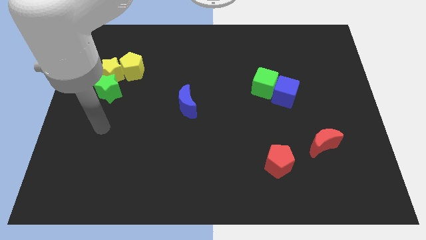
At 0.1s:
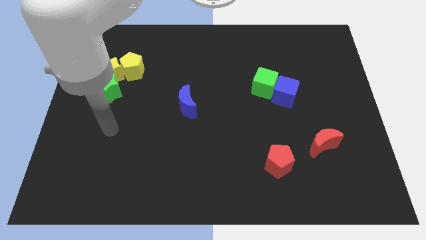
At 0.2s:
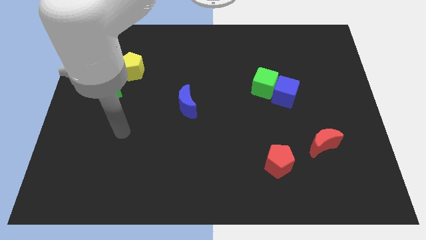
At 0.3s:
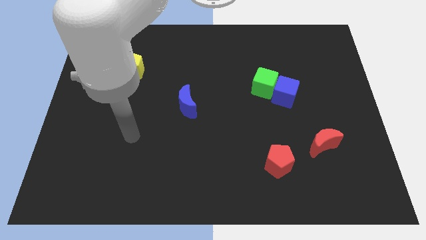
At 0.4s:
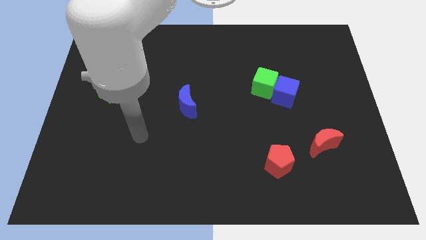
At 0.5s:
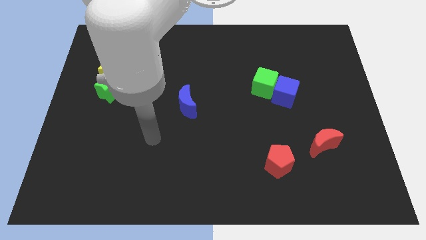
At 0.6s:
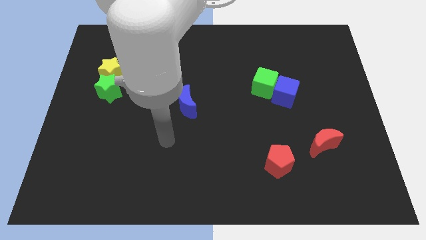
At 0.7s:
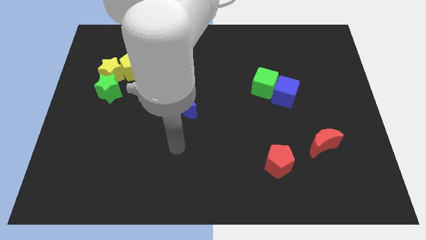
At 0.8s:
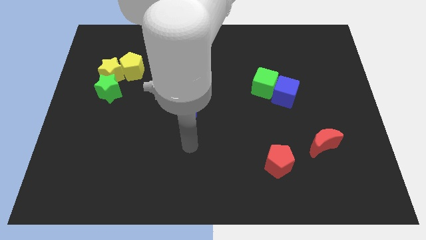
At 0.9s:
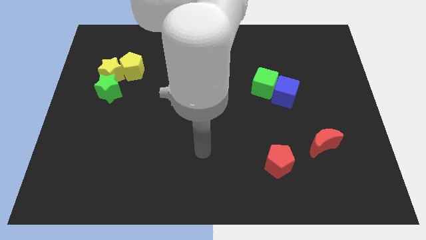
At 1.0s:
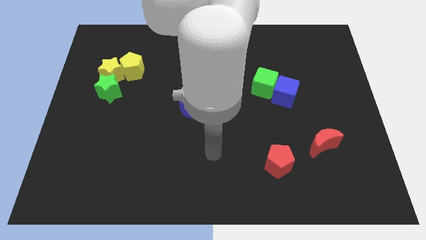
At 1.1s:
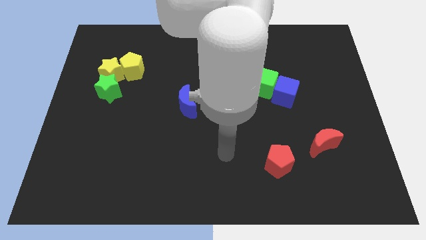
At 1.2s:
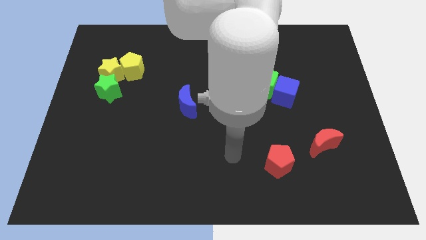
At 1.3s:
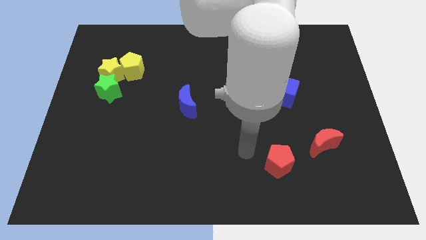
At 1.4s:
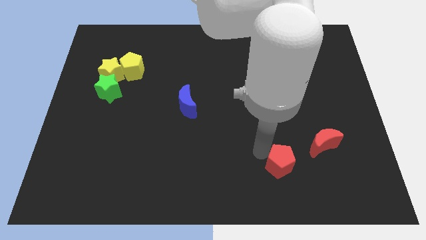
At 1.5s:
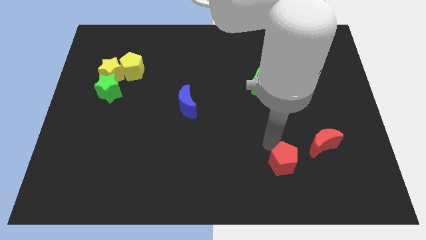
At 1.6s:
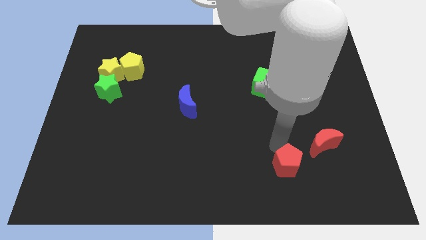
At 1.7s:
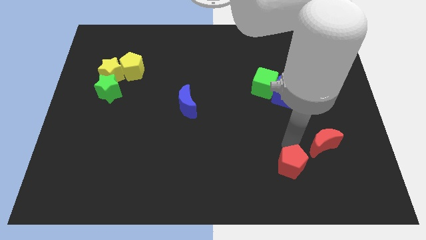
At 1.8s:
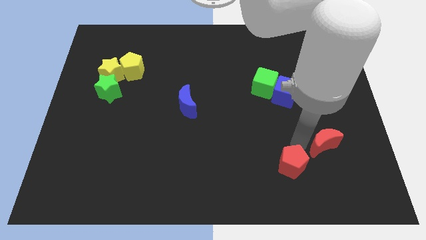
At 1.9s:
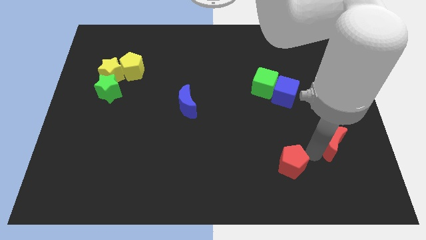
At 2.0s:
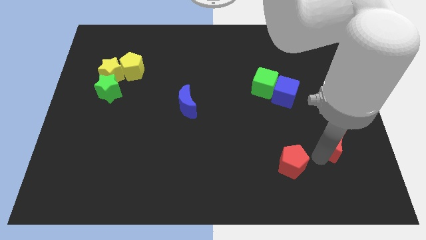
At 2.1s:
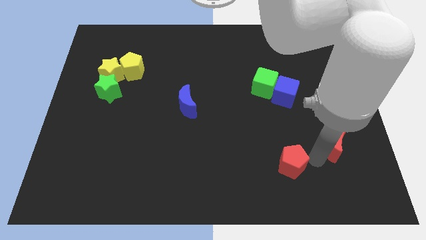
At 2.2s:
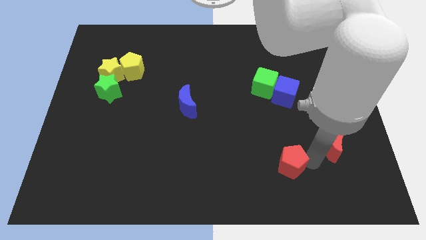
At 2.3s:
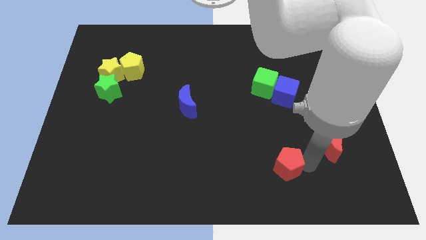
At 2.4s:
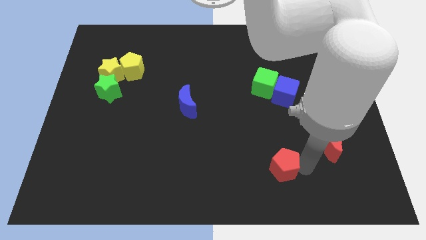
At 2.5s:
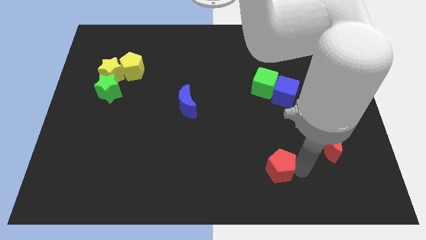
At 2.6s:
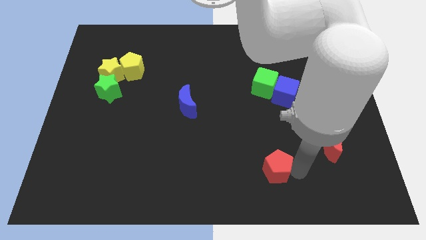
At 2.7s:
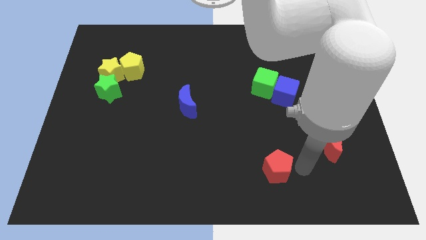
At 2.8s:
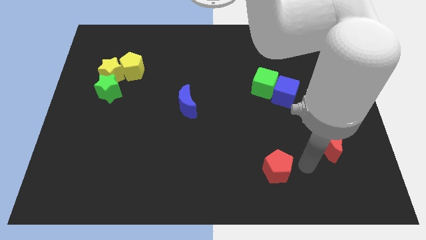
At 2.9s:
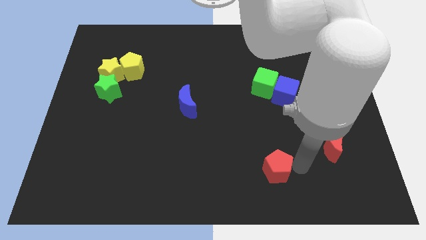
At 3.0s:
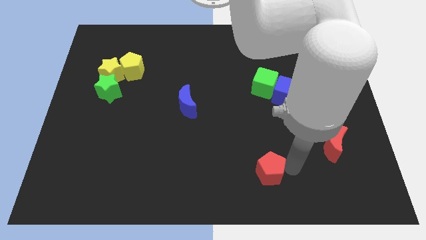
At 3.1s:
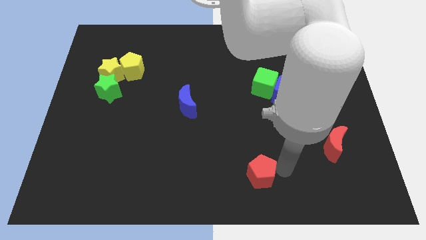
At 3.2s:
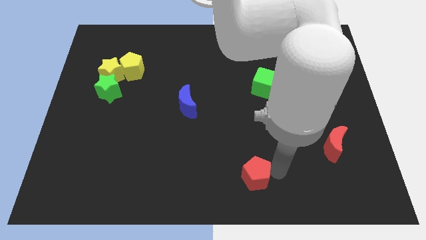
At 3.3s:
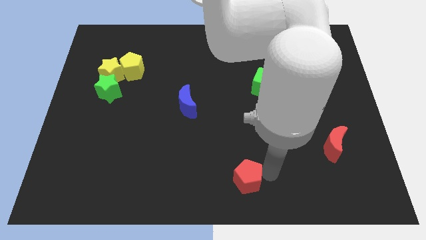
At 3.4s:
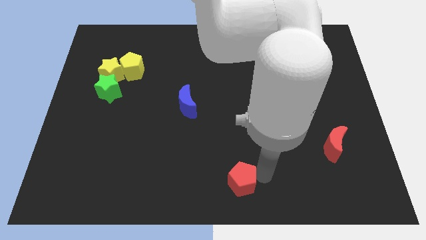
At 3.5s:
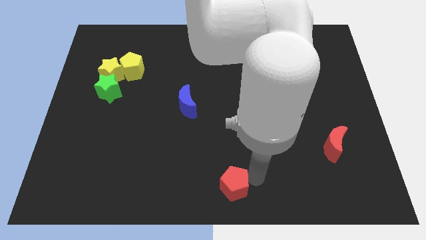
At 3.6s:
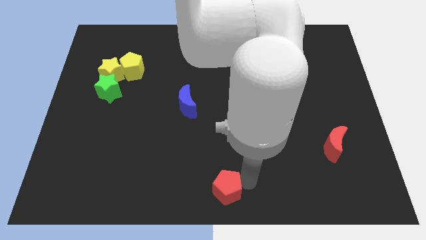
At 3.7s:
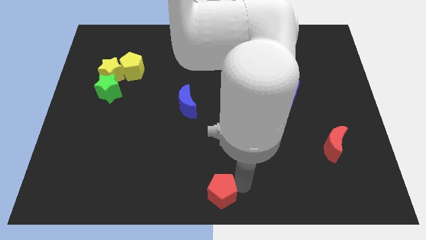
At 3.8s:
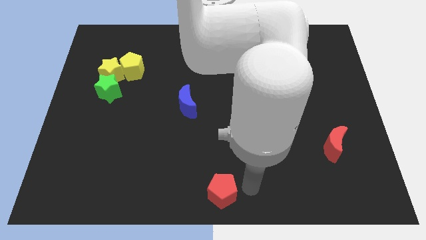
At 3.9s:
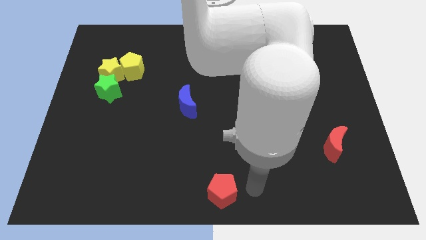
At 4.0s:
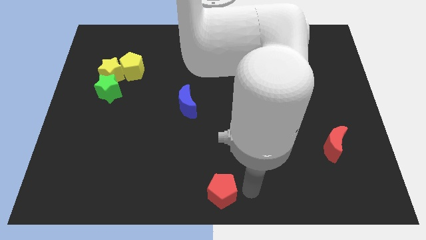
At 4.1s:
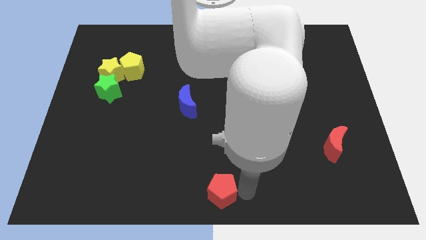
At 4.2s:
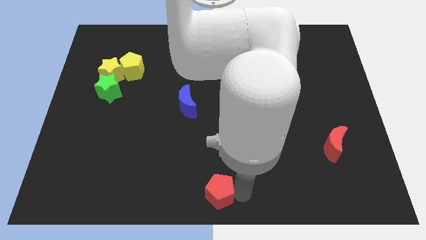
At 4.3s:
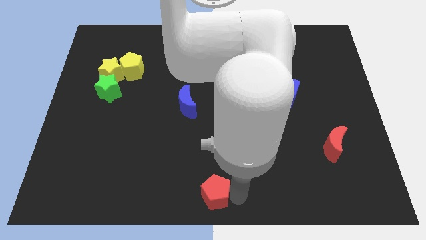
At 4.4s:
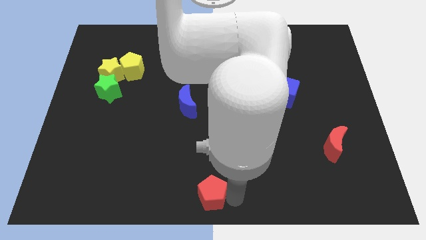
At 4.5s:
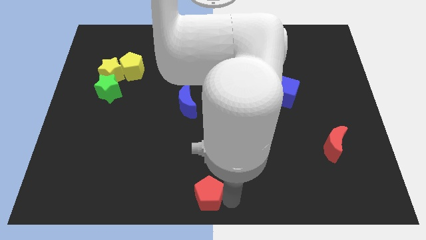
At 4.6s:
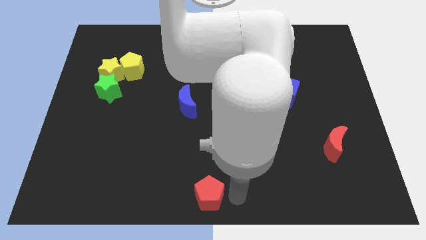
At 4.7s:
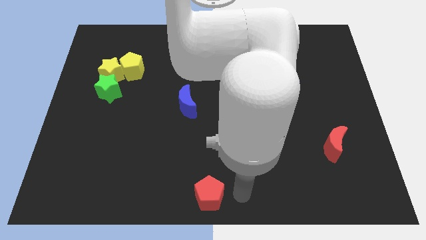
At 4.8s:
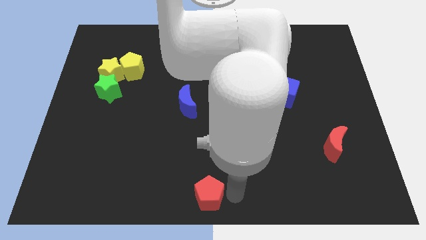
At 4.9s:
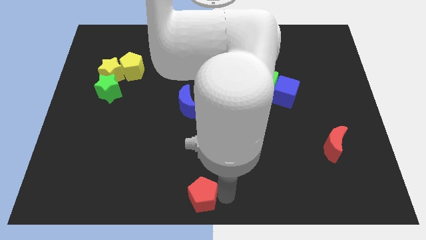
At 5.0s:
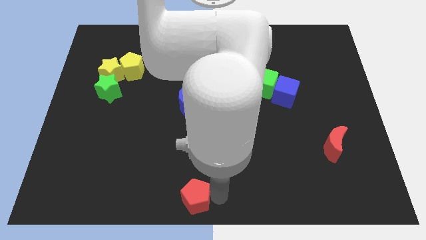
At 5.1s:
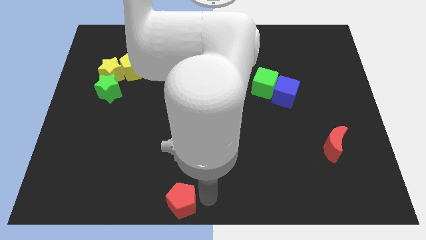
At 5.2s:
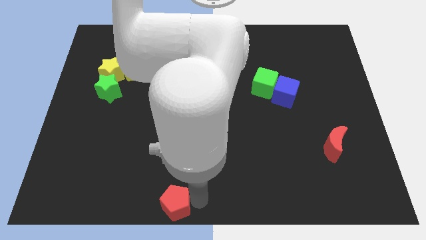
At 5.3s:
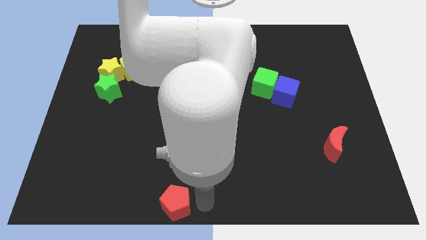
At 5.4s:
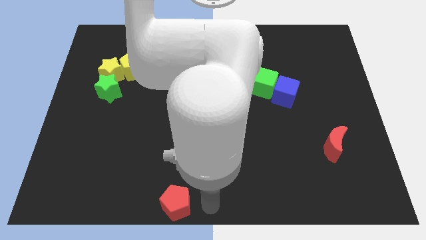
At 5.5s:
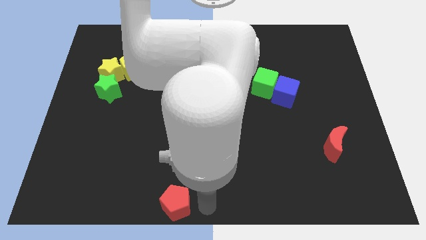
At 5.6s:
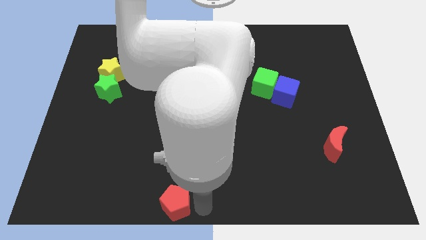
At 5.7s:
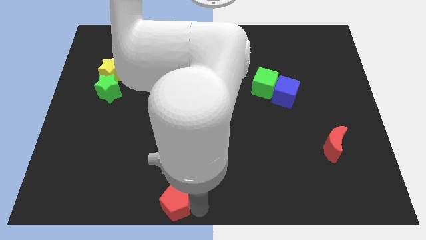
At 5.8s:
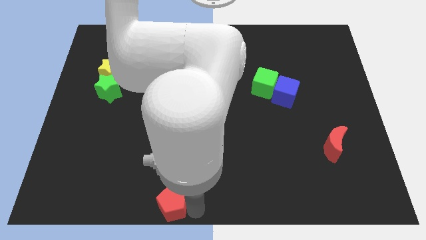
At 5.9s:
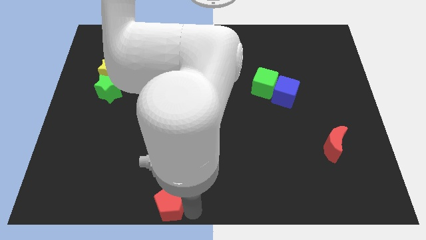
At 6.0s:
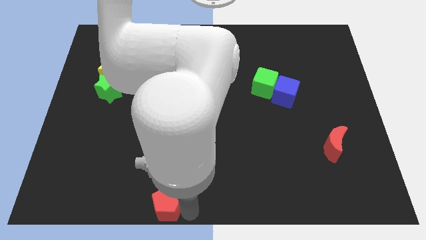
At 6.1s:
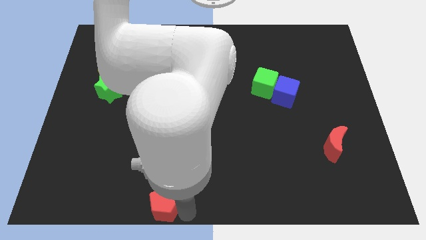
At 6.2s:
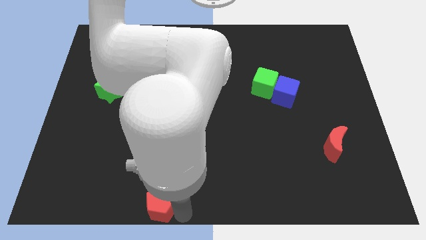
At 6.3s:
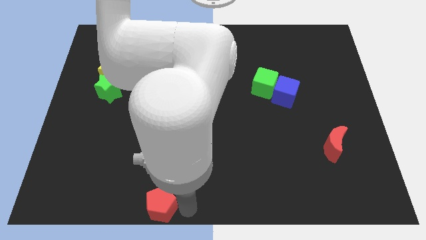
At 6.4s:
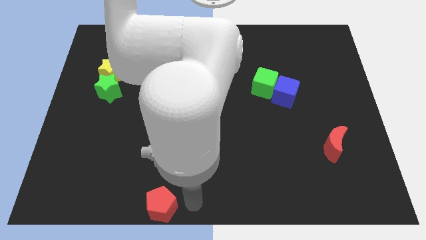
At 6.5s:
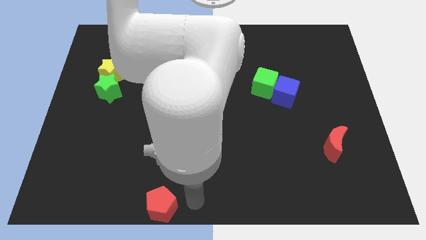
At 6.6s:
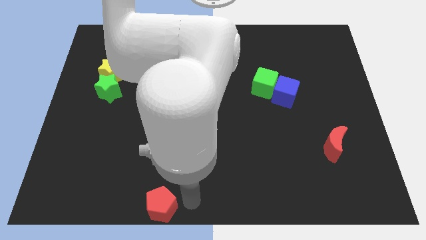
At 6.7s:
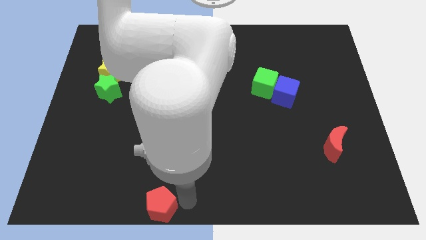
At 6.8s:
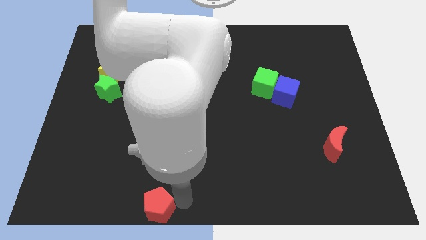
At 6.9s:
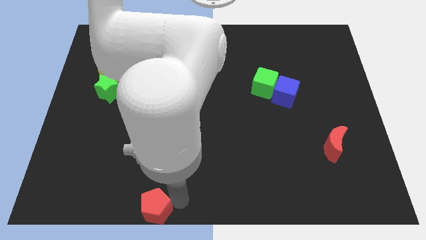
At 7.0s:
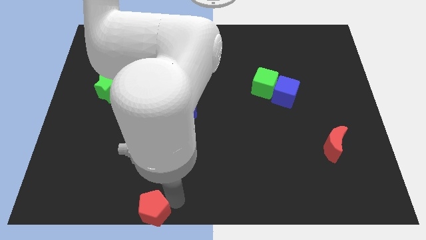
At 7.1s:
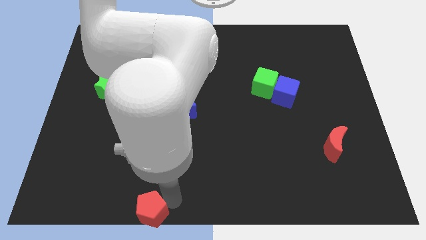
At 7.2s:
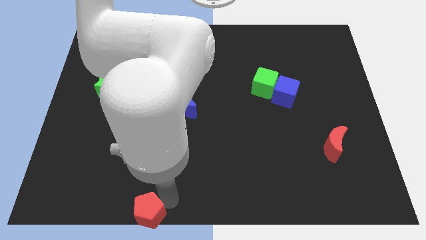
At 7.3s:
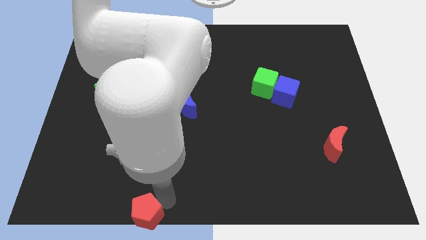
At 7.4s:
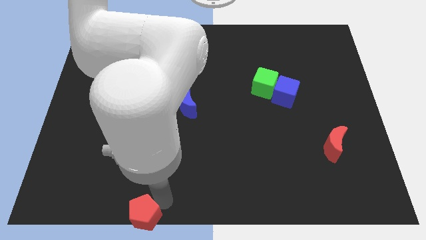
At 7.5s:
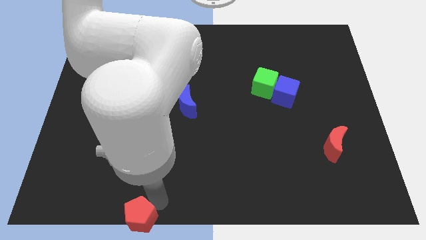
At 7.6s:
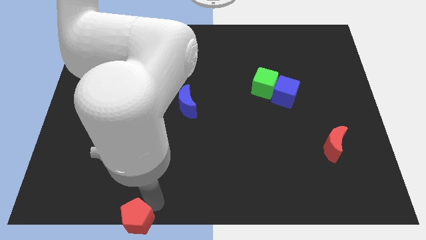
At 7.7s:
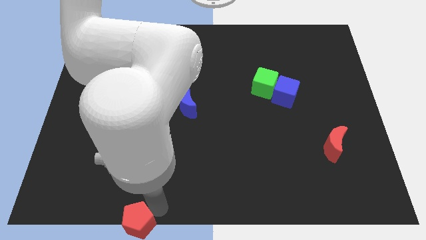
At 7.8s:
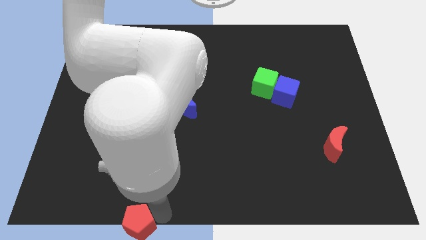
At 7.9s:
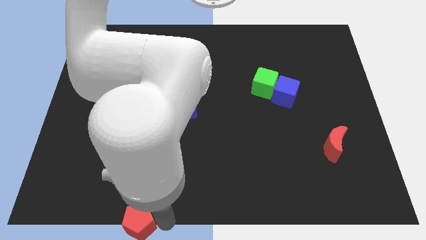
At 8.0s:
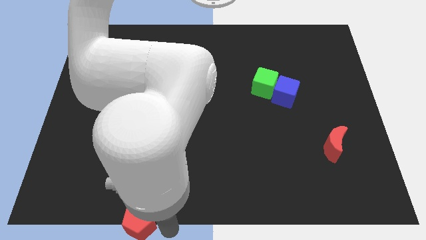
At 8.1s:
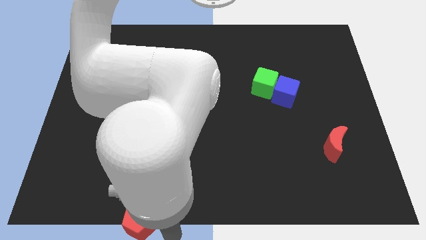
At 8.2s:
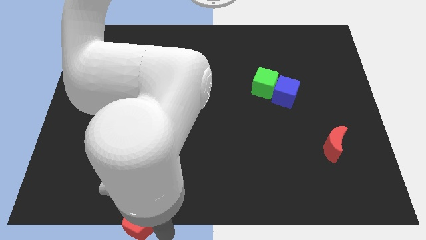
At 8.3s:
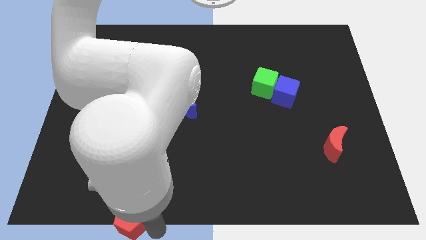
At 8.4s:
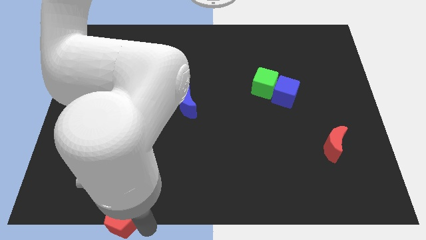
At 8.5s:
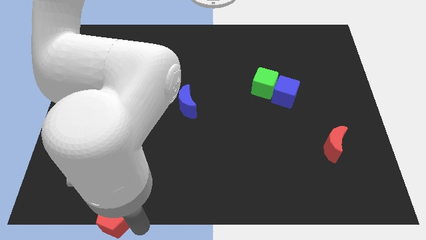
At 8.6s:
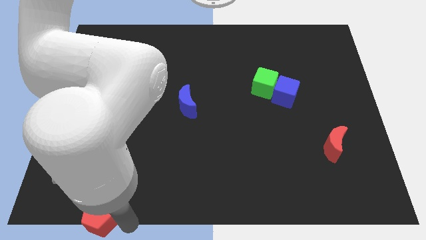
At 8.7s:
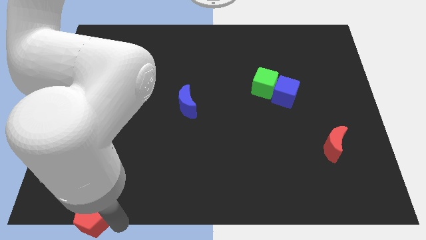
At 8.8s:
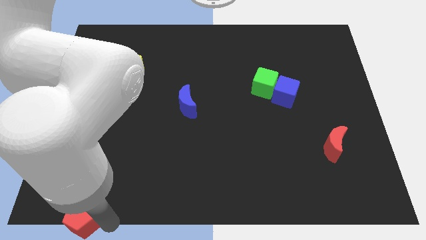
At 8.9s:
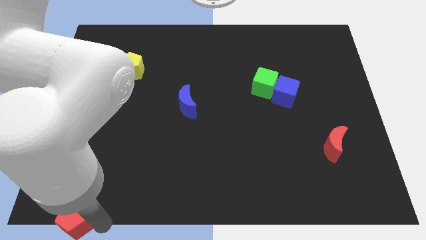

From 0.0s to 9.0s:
put the red pentagon to the lower left corner
